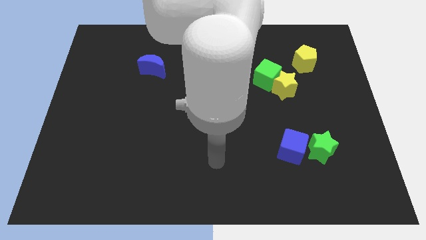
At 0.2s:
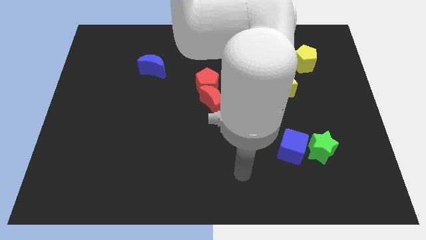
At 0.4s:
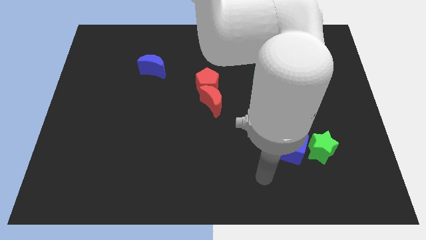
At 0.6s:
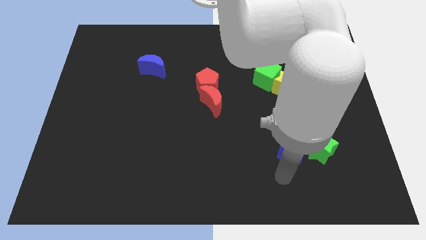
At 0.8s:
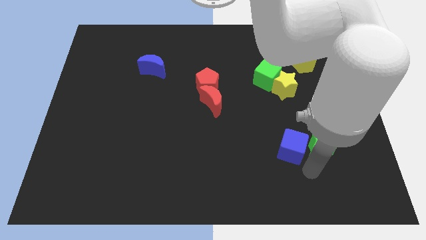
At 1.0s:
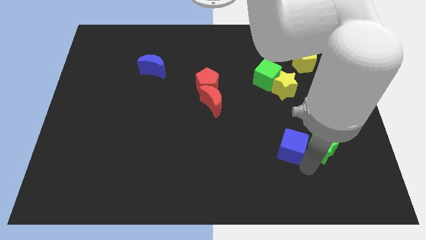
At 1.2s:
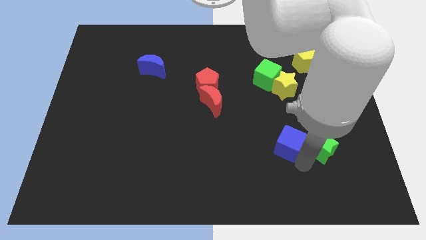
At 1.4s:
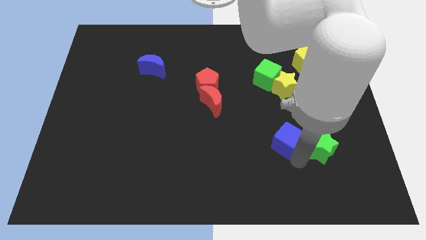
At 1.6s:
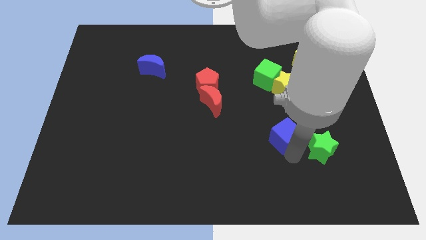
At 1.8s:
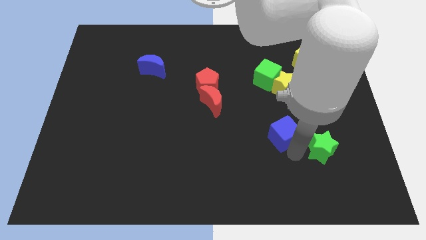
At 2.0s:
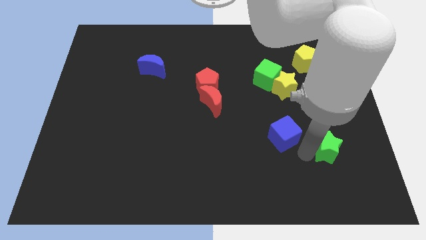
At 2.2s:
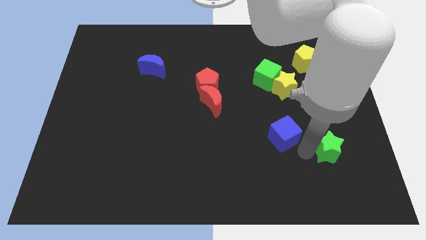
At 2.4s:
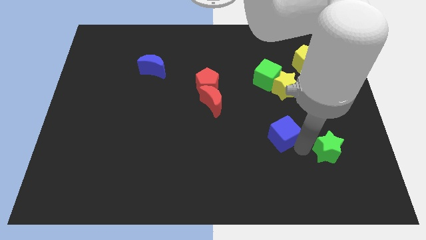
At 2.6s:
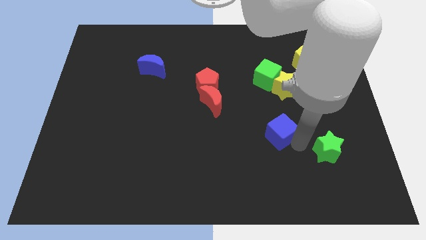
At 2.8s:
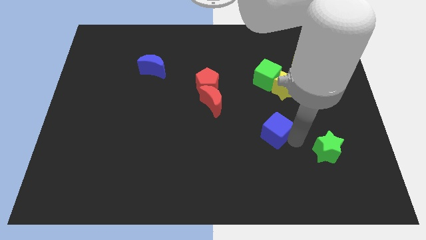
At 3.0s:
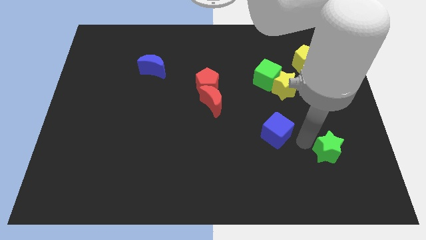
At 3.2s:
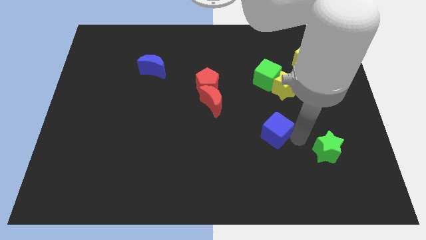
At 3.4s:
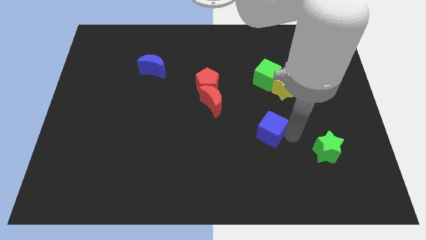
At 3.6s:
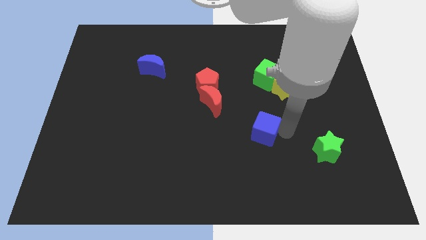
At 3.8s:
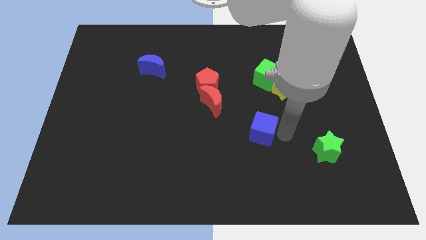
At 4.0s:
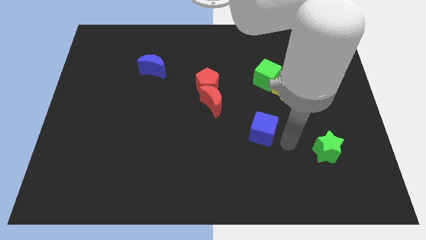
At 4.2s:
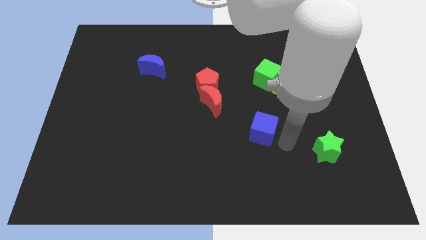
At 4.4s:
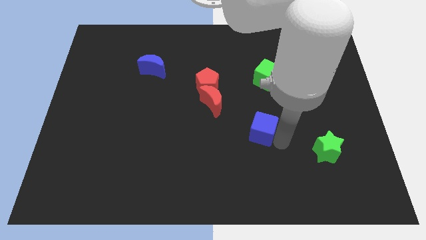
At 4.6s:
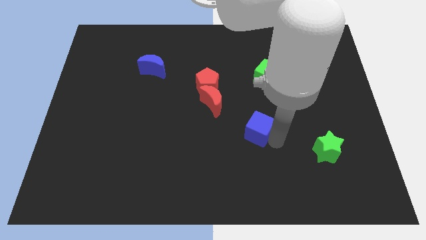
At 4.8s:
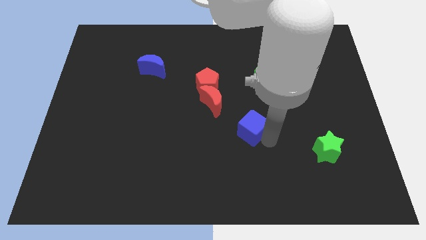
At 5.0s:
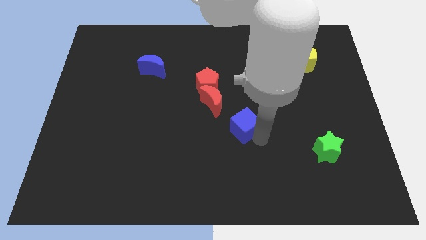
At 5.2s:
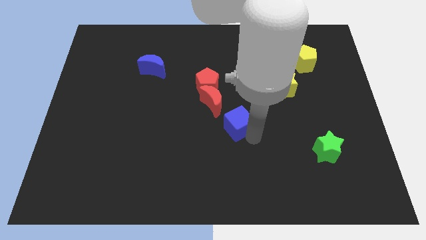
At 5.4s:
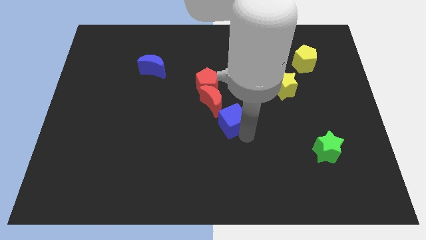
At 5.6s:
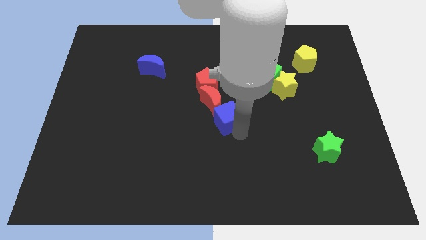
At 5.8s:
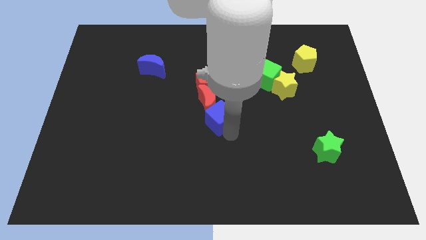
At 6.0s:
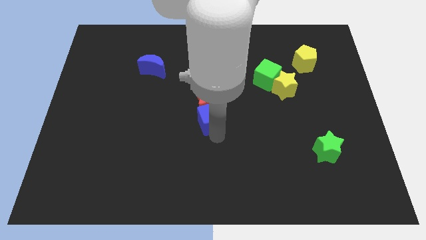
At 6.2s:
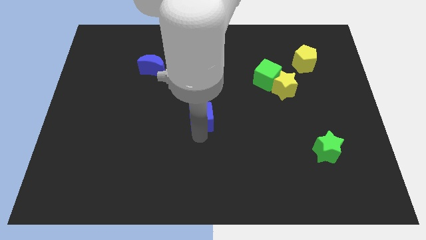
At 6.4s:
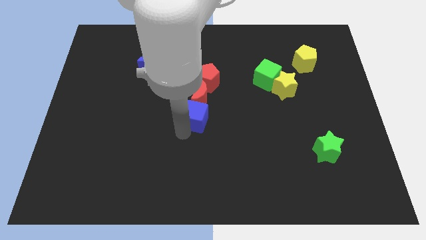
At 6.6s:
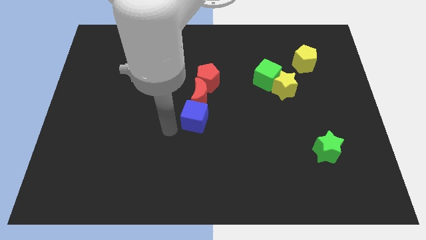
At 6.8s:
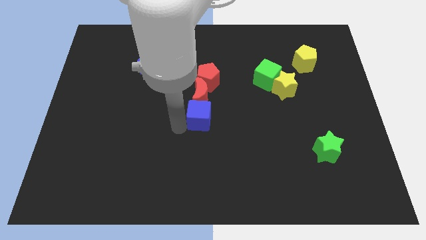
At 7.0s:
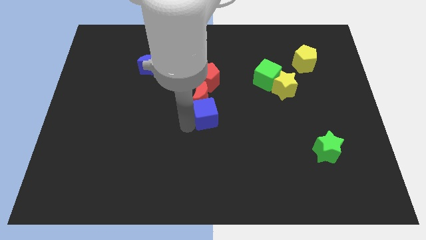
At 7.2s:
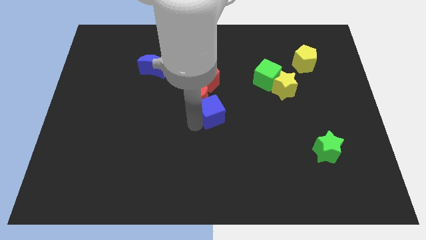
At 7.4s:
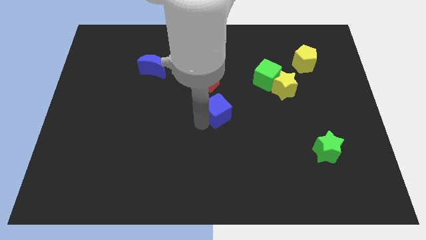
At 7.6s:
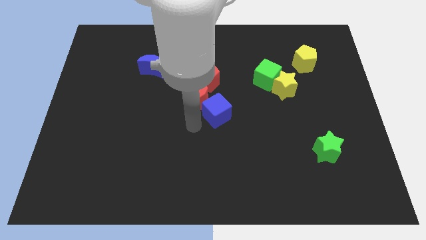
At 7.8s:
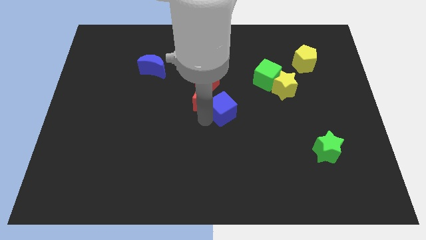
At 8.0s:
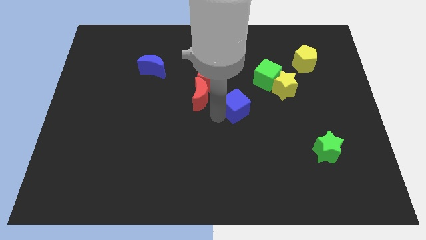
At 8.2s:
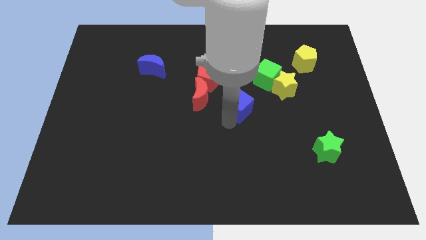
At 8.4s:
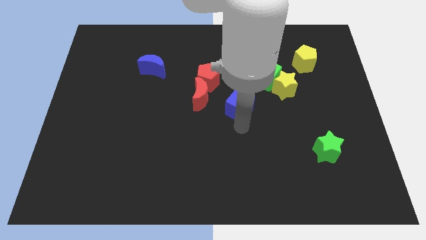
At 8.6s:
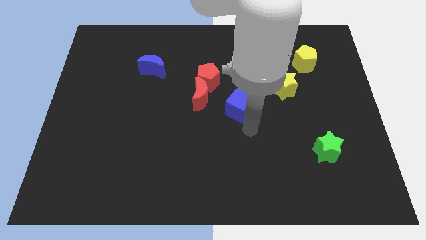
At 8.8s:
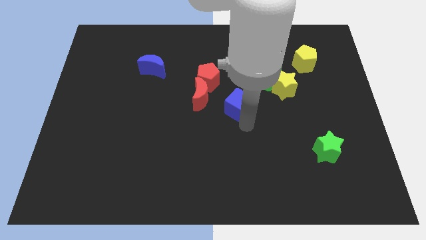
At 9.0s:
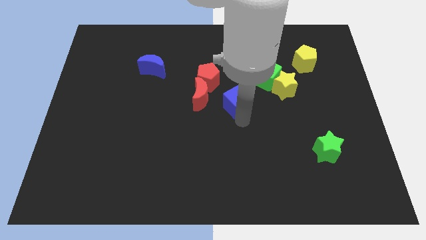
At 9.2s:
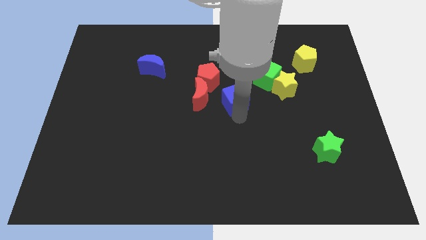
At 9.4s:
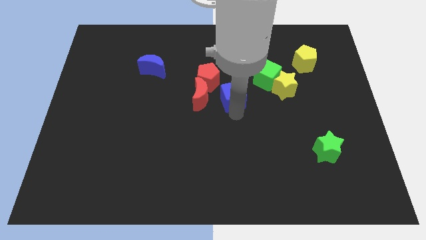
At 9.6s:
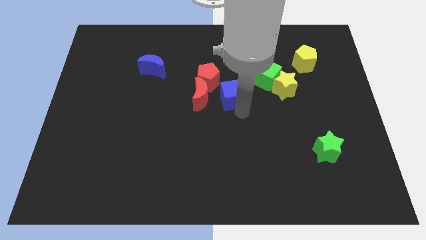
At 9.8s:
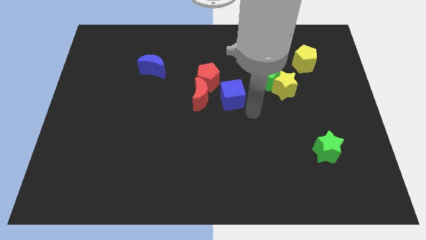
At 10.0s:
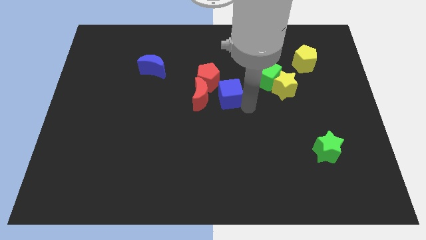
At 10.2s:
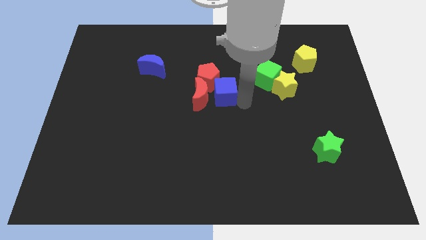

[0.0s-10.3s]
push the blue cube close to the red pentagon

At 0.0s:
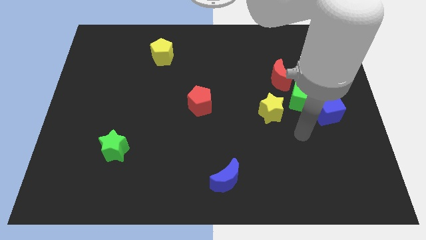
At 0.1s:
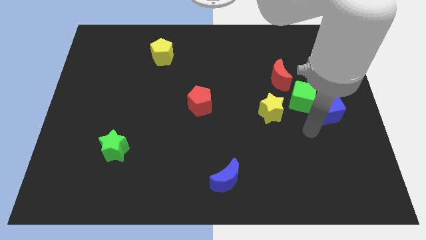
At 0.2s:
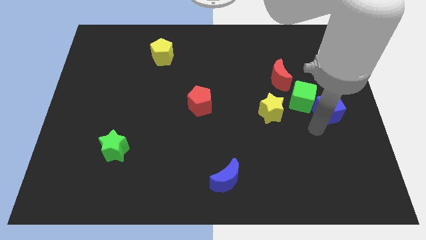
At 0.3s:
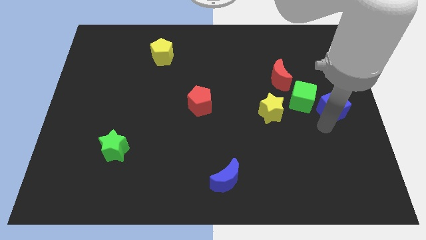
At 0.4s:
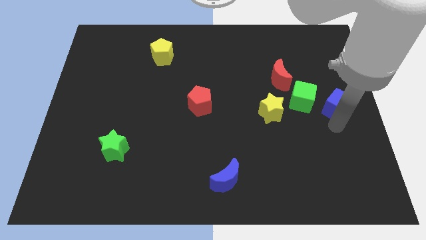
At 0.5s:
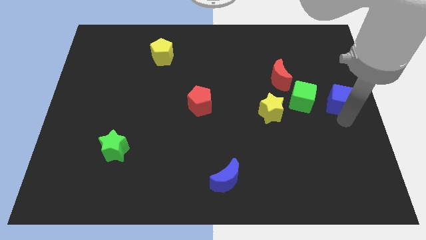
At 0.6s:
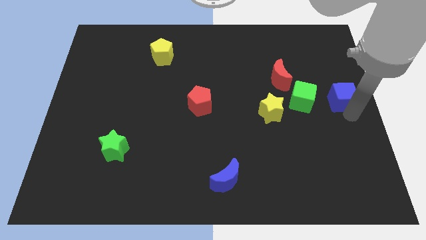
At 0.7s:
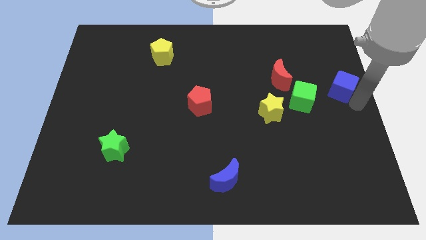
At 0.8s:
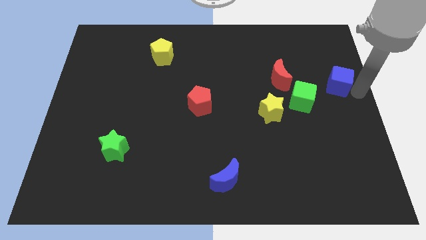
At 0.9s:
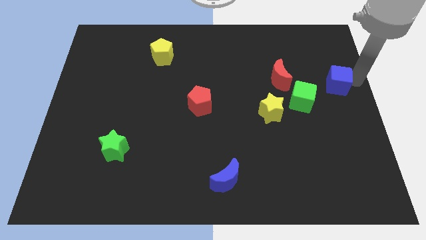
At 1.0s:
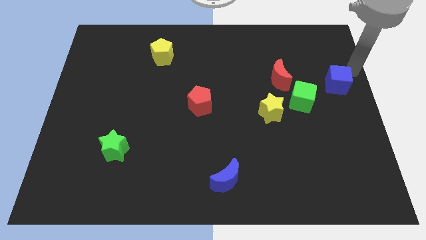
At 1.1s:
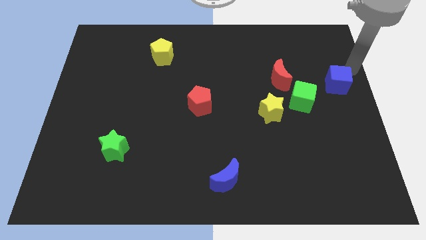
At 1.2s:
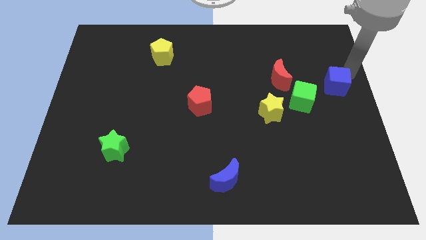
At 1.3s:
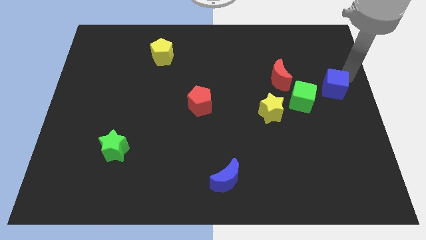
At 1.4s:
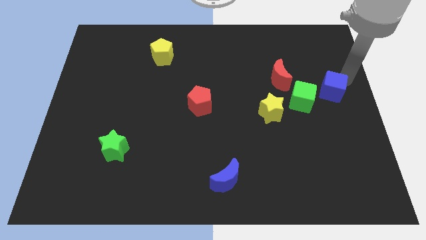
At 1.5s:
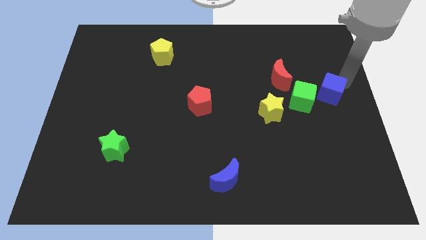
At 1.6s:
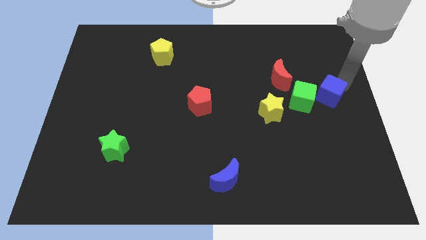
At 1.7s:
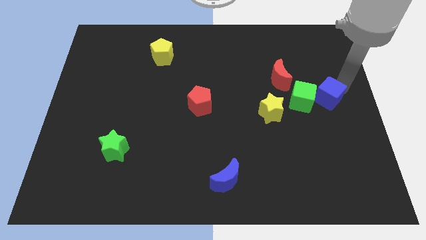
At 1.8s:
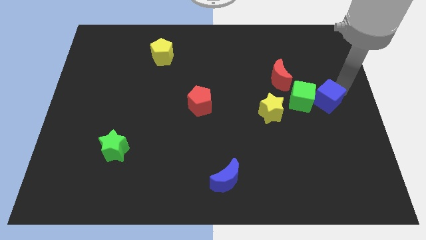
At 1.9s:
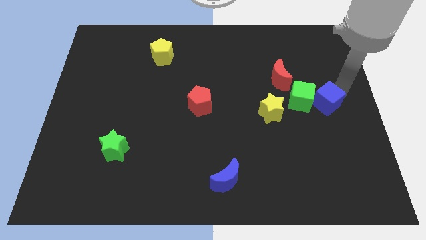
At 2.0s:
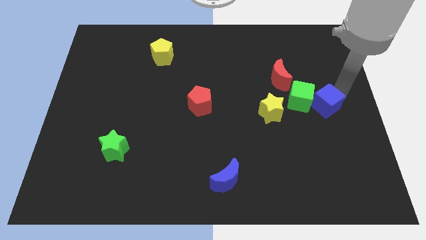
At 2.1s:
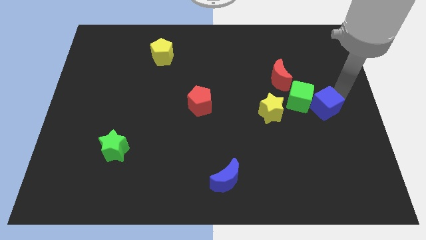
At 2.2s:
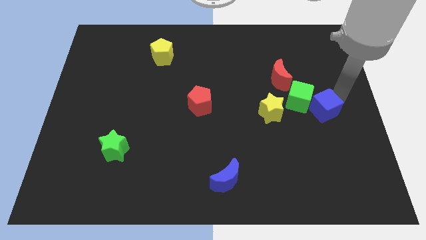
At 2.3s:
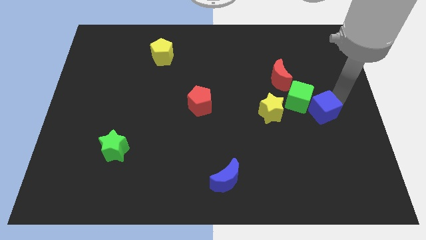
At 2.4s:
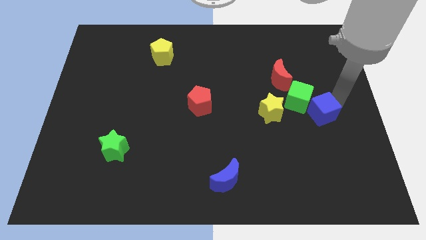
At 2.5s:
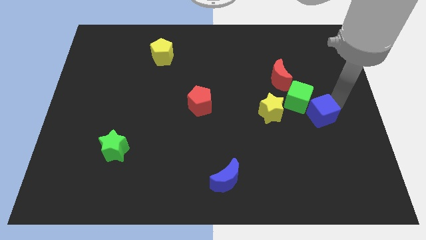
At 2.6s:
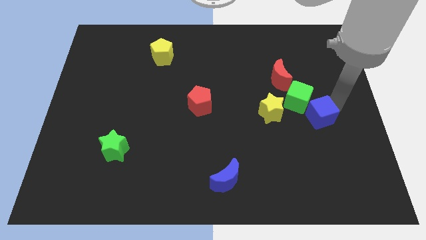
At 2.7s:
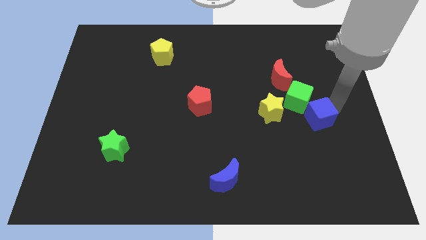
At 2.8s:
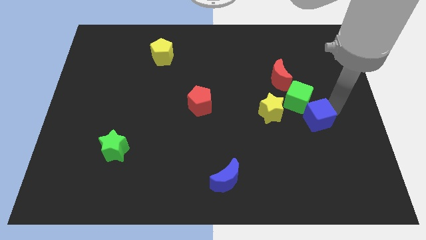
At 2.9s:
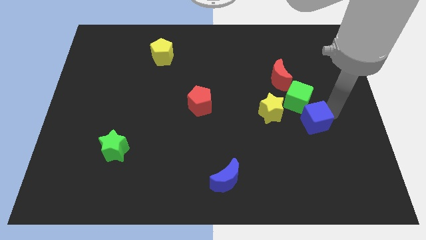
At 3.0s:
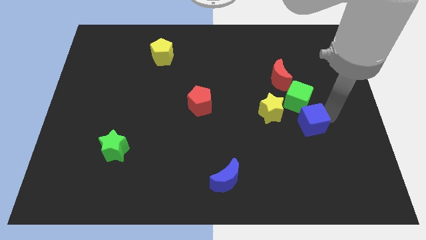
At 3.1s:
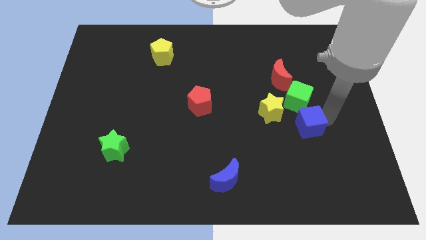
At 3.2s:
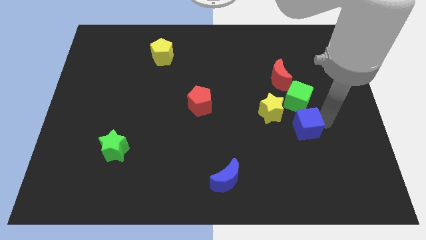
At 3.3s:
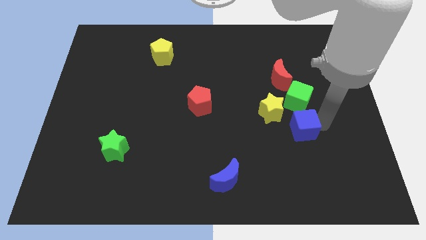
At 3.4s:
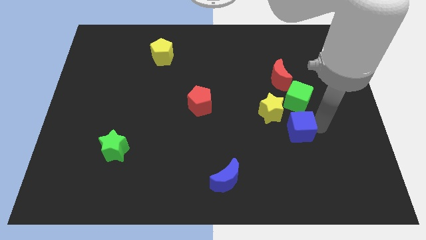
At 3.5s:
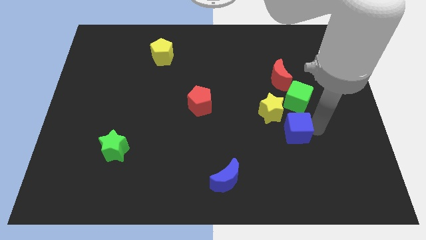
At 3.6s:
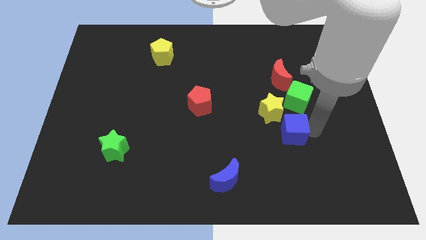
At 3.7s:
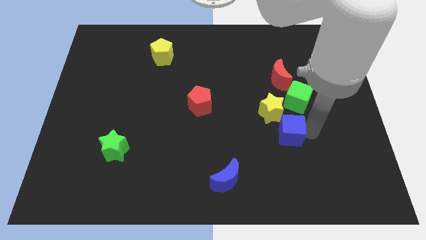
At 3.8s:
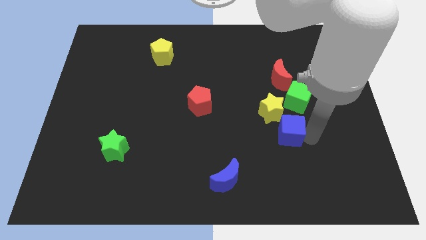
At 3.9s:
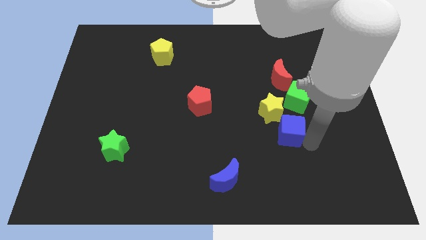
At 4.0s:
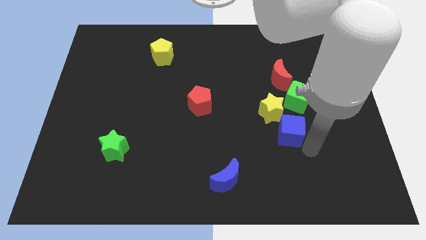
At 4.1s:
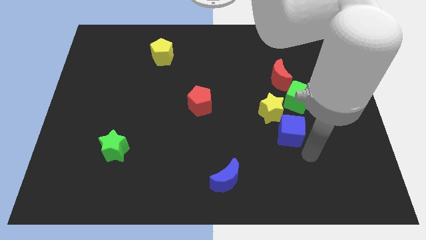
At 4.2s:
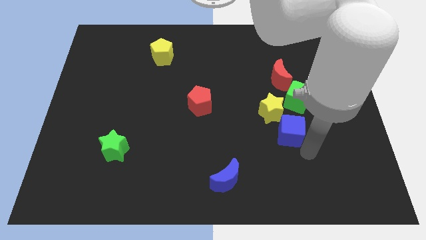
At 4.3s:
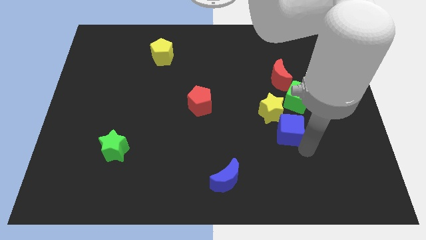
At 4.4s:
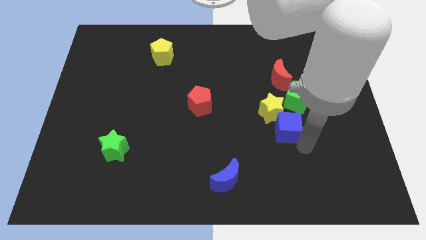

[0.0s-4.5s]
slide the blue cube next to the yellow star
